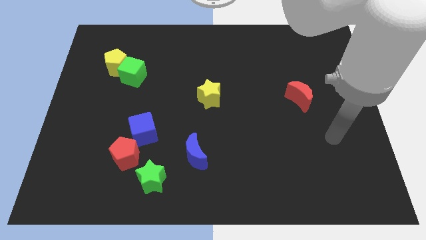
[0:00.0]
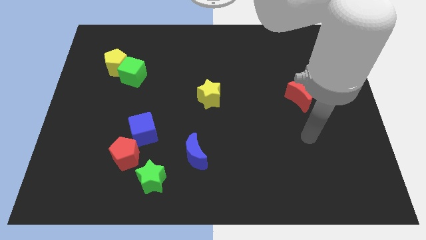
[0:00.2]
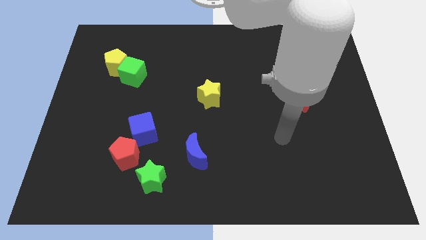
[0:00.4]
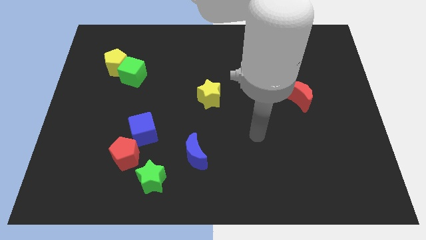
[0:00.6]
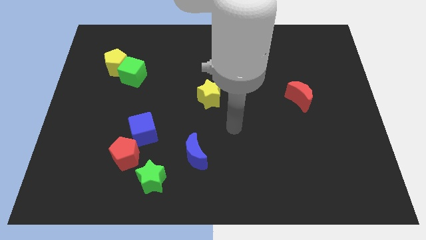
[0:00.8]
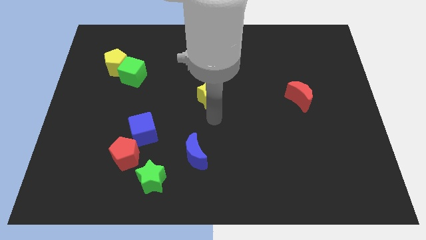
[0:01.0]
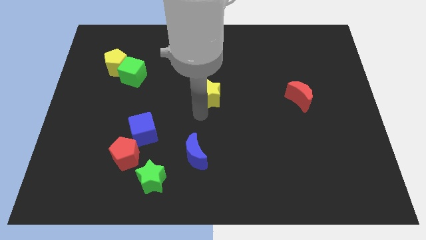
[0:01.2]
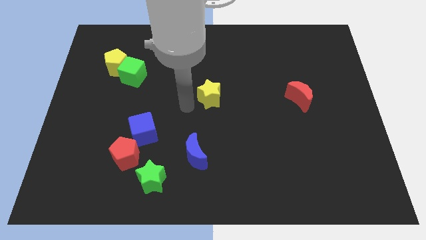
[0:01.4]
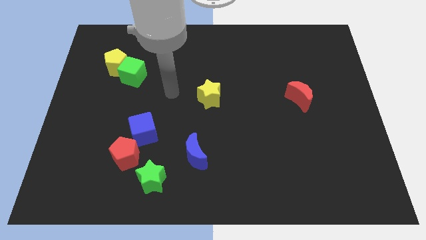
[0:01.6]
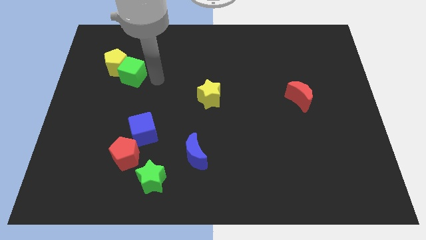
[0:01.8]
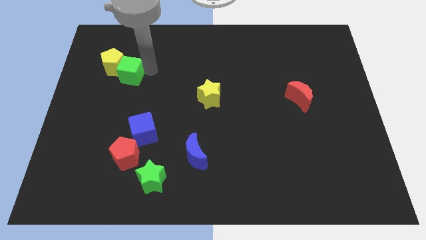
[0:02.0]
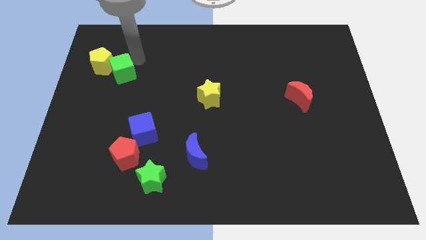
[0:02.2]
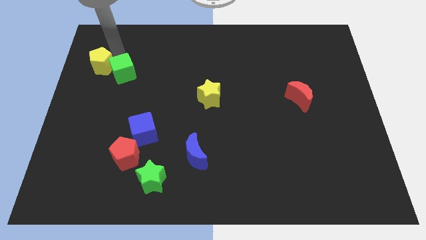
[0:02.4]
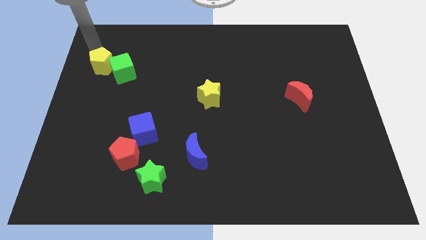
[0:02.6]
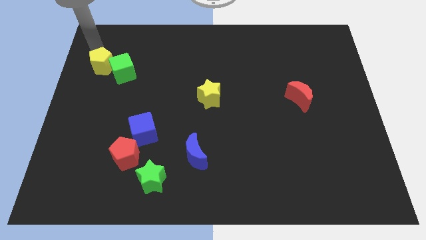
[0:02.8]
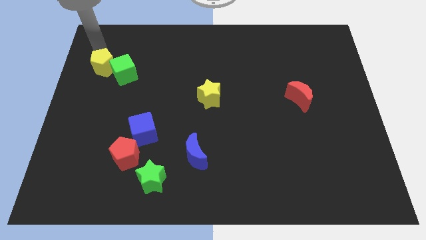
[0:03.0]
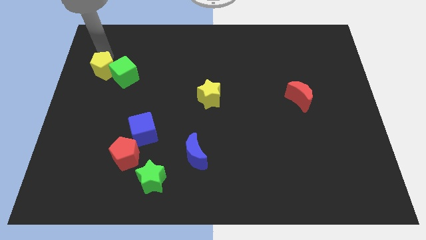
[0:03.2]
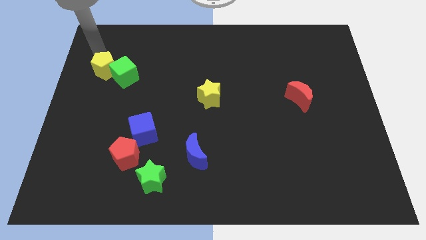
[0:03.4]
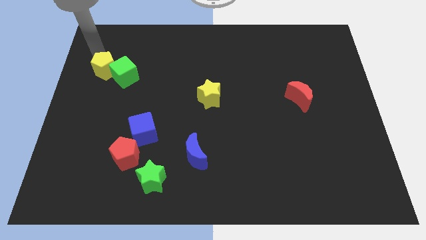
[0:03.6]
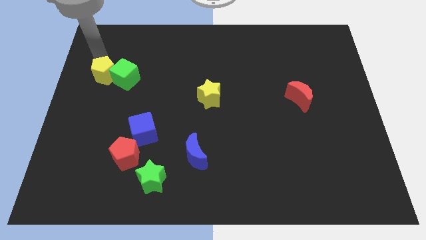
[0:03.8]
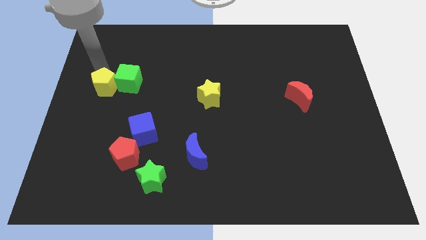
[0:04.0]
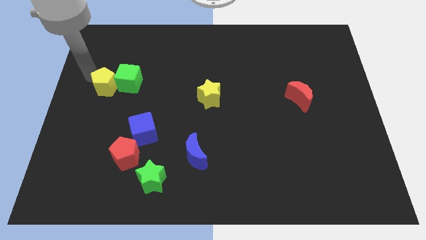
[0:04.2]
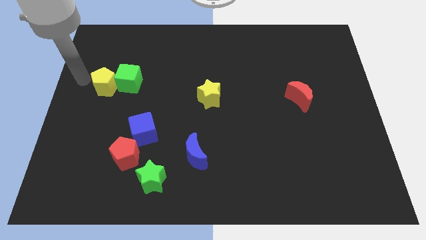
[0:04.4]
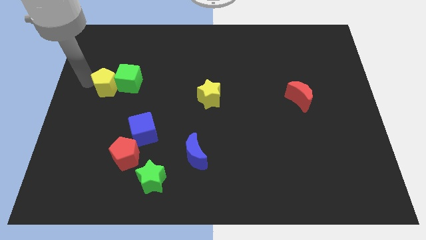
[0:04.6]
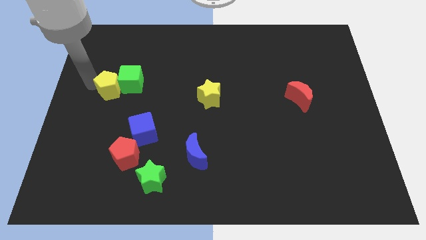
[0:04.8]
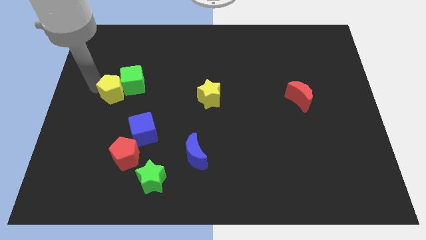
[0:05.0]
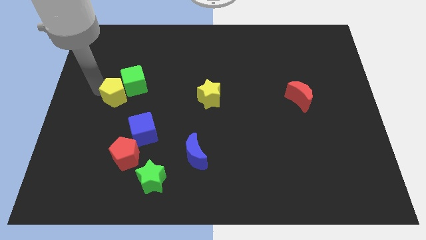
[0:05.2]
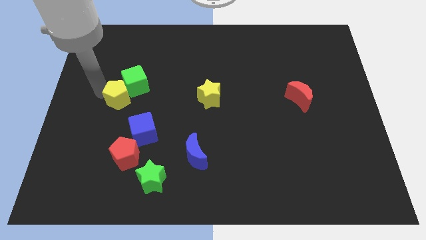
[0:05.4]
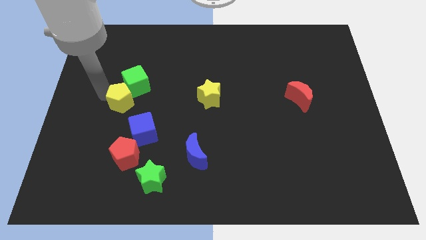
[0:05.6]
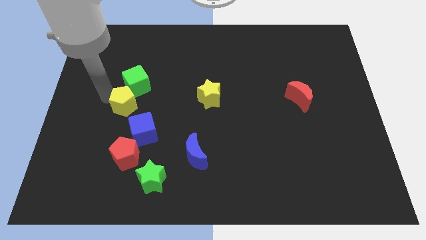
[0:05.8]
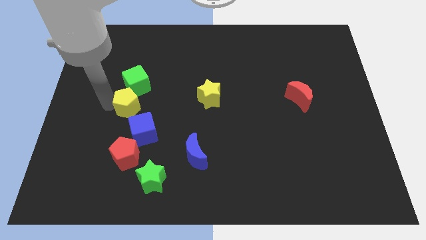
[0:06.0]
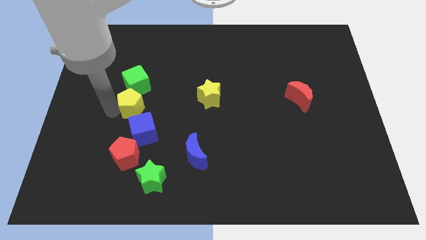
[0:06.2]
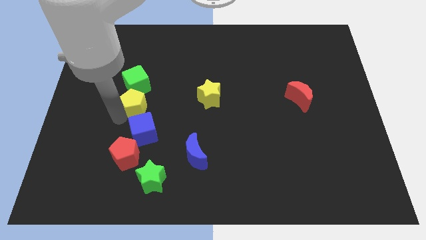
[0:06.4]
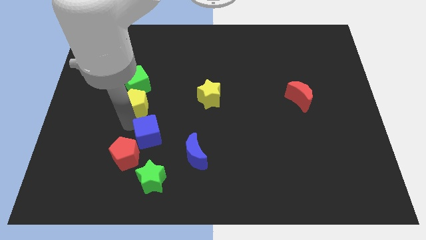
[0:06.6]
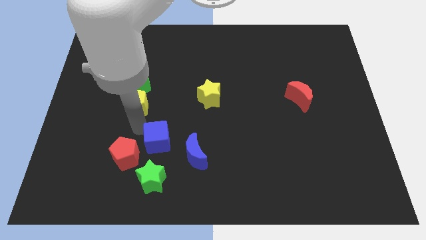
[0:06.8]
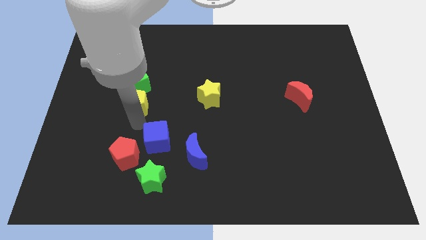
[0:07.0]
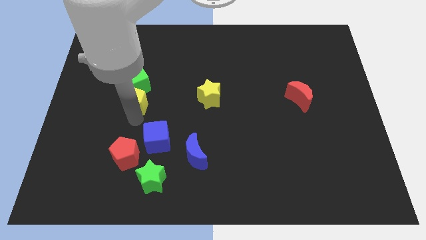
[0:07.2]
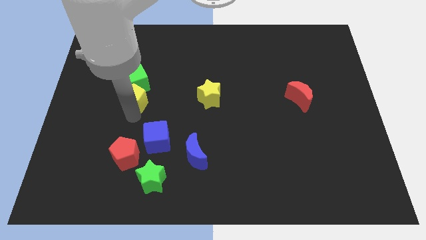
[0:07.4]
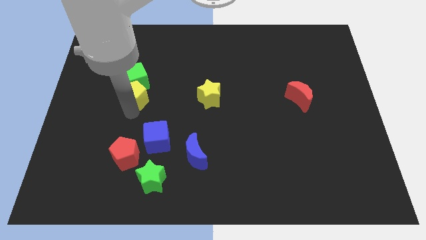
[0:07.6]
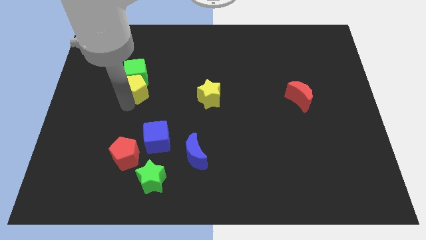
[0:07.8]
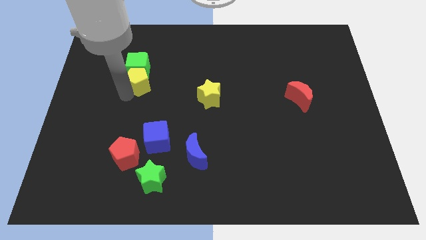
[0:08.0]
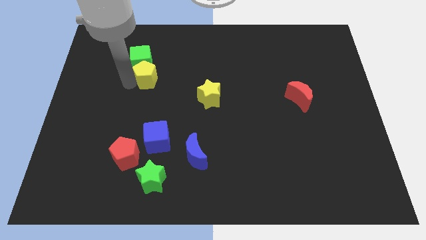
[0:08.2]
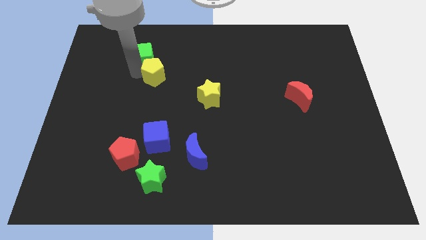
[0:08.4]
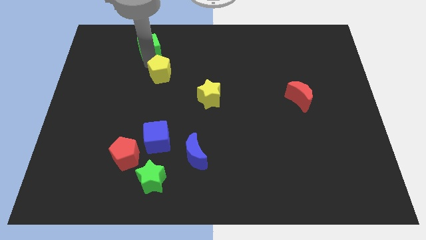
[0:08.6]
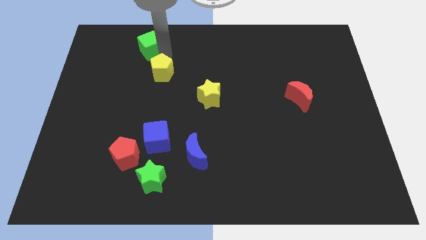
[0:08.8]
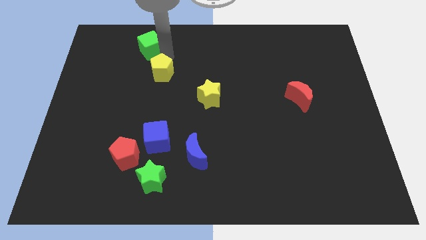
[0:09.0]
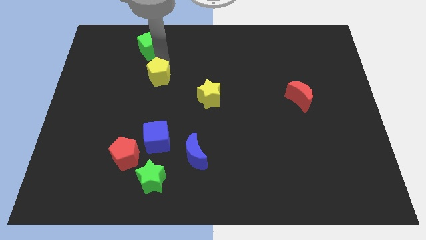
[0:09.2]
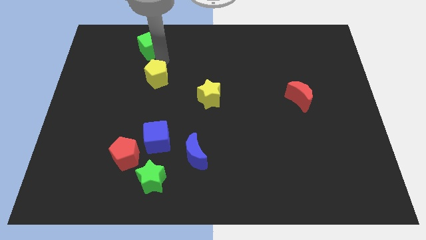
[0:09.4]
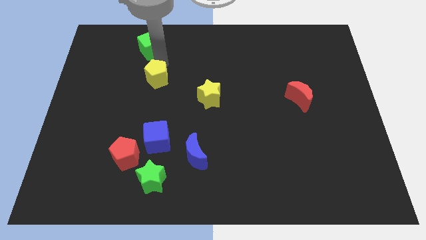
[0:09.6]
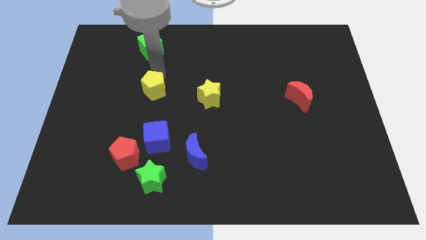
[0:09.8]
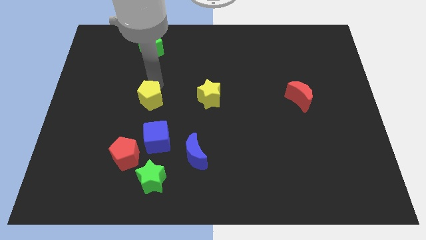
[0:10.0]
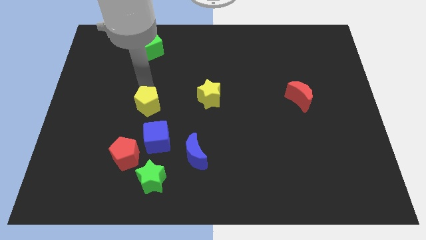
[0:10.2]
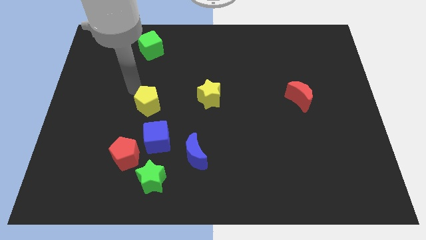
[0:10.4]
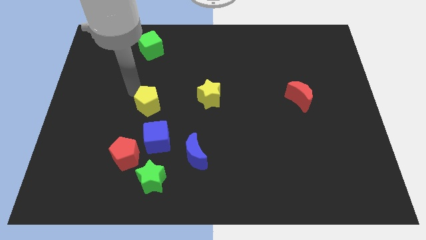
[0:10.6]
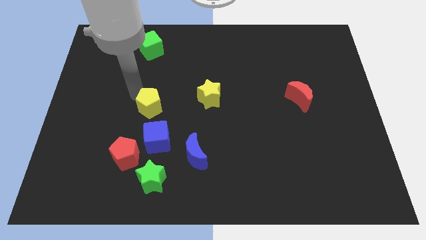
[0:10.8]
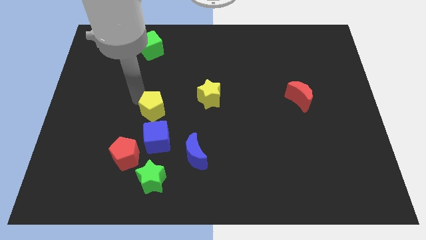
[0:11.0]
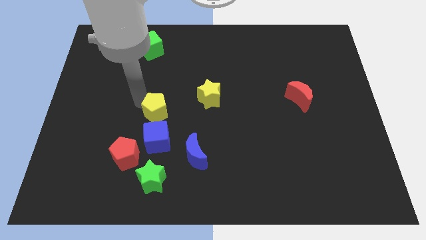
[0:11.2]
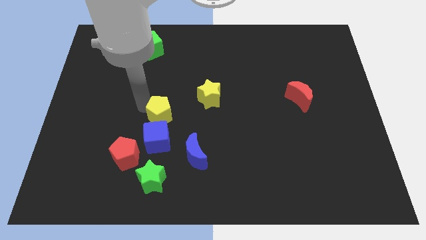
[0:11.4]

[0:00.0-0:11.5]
push the yellow pentagon diagonally down and to the right

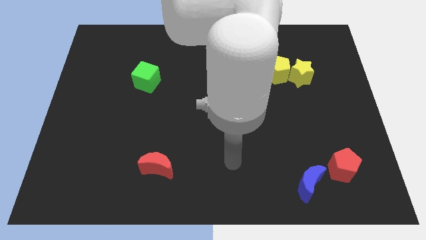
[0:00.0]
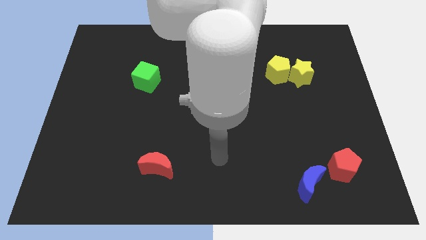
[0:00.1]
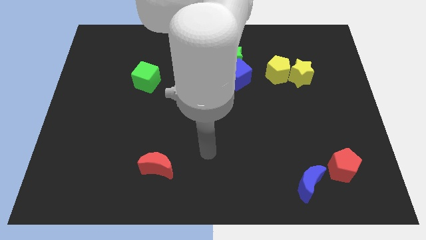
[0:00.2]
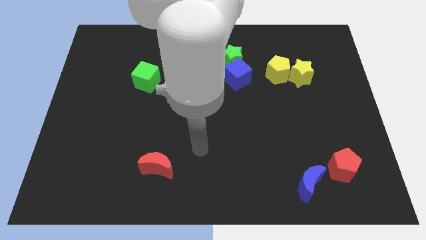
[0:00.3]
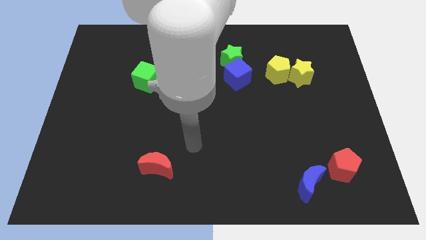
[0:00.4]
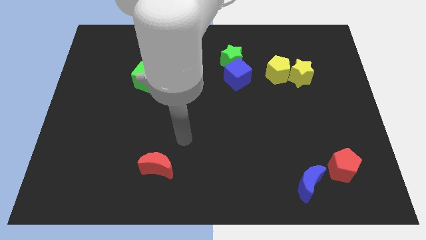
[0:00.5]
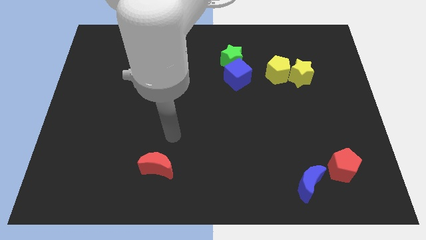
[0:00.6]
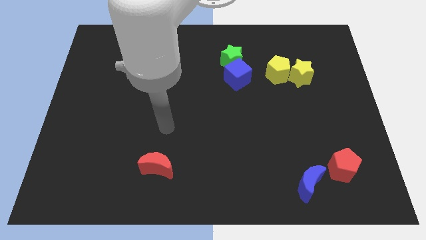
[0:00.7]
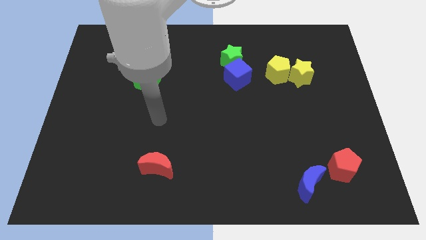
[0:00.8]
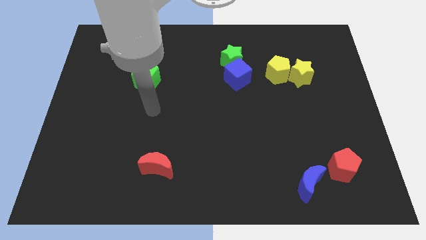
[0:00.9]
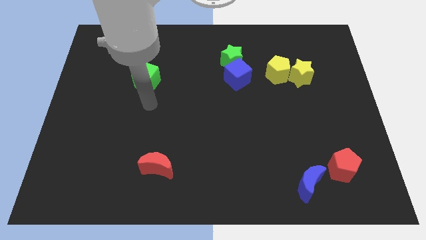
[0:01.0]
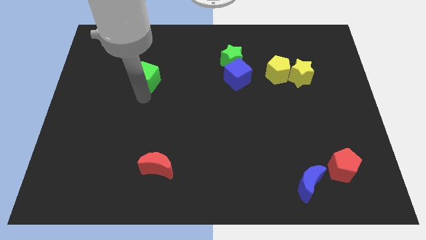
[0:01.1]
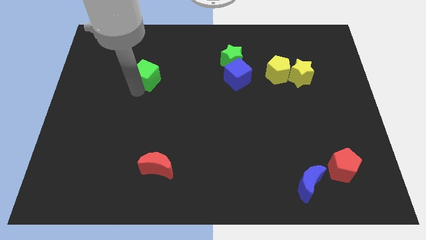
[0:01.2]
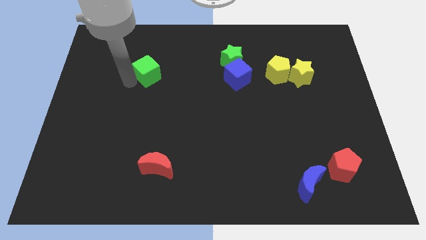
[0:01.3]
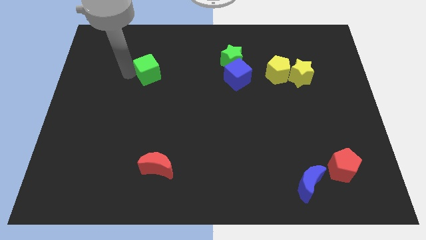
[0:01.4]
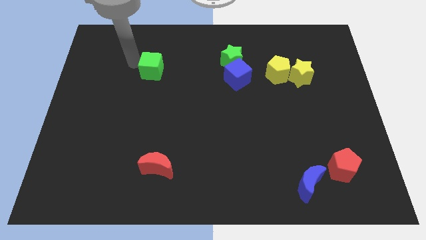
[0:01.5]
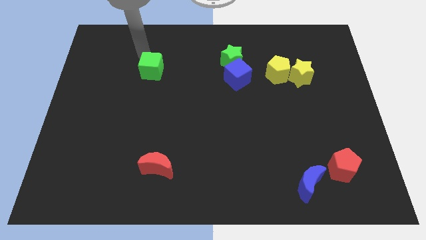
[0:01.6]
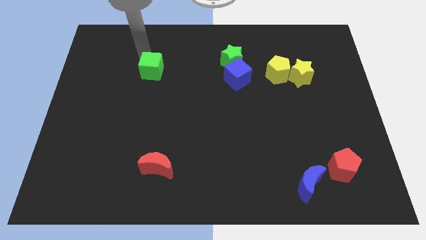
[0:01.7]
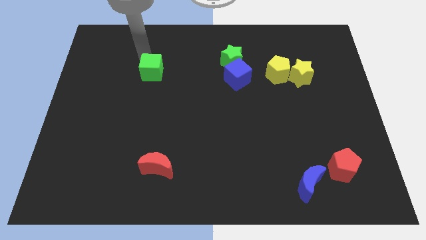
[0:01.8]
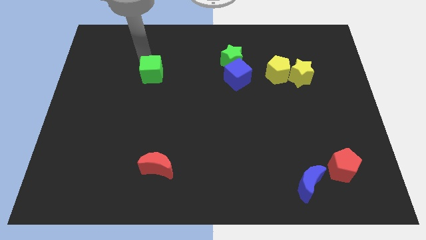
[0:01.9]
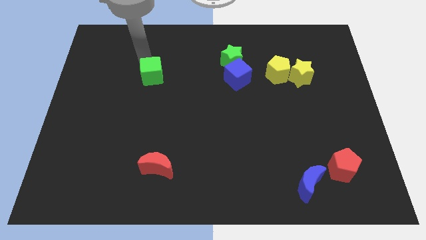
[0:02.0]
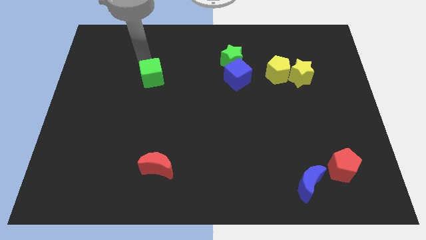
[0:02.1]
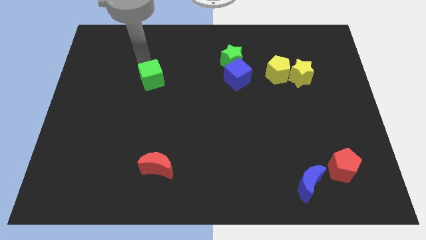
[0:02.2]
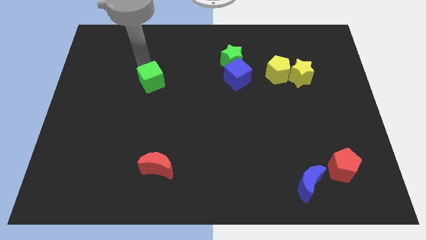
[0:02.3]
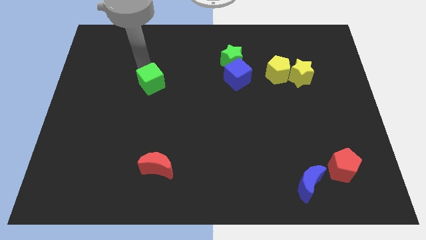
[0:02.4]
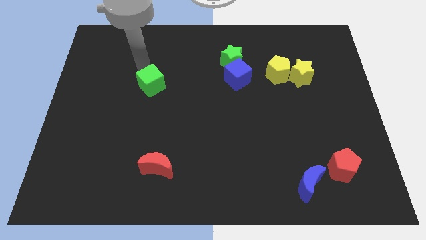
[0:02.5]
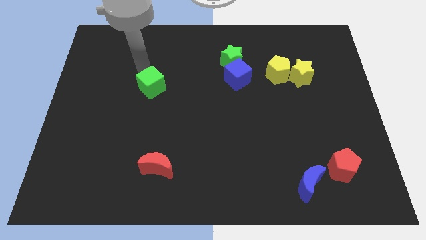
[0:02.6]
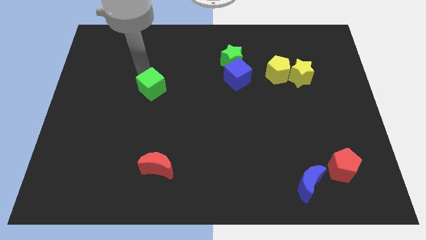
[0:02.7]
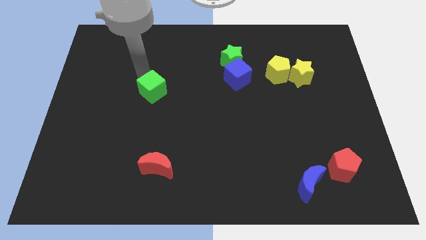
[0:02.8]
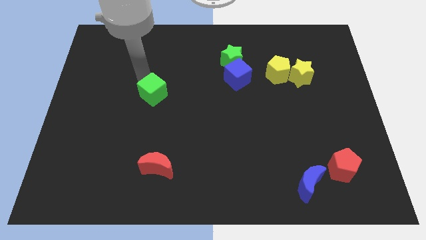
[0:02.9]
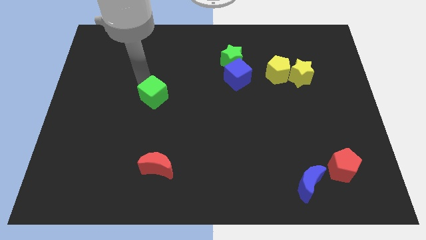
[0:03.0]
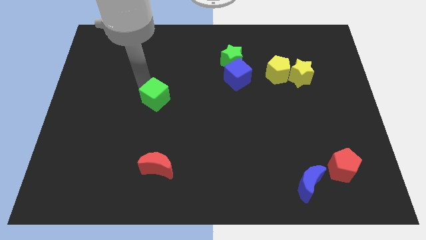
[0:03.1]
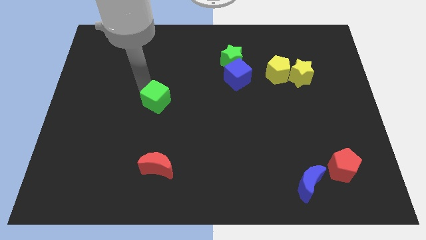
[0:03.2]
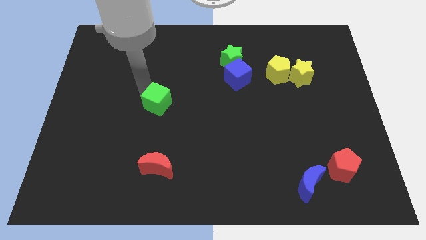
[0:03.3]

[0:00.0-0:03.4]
move the green cube diagonally downwards and to the right a bit
